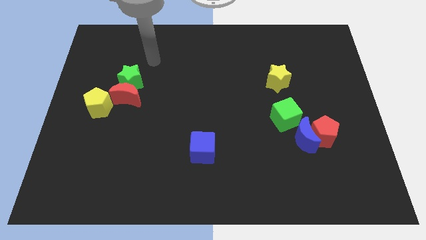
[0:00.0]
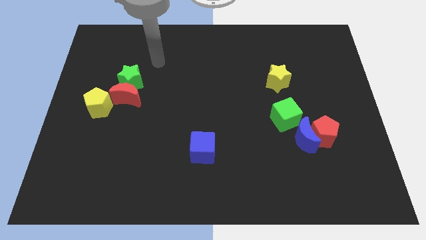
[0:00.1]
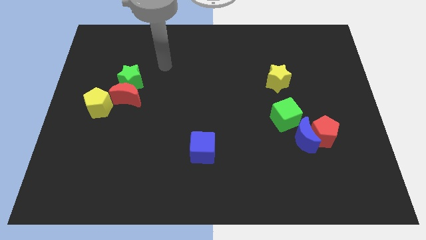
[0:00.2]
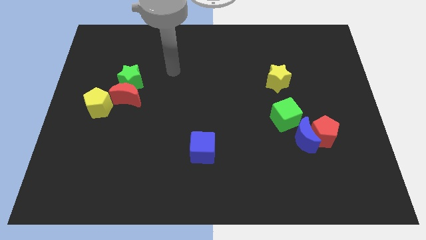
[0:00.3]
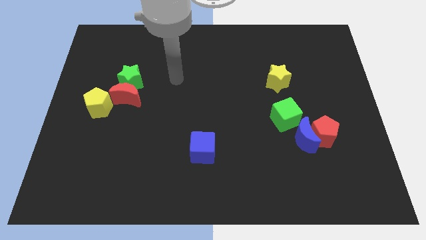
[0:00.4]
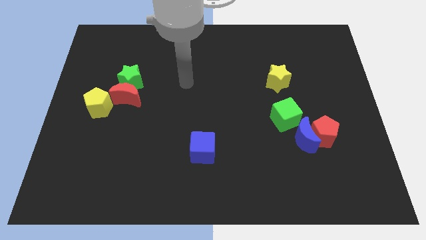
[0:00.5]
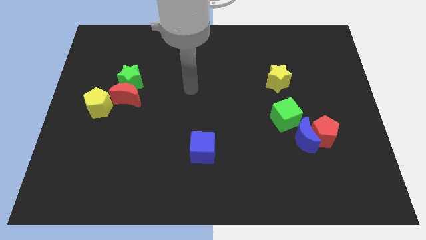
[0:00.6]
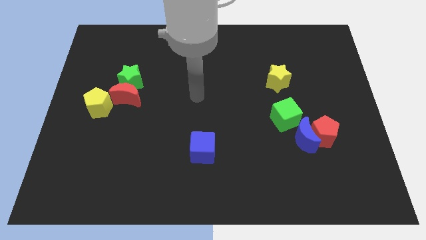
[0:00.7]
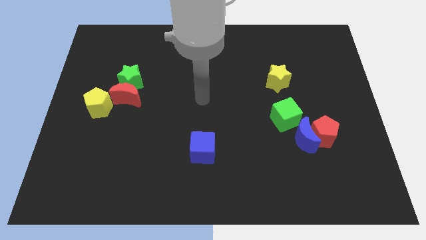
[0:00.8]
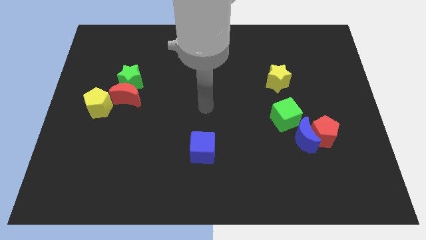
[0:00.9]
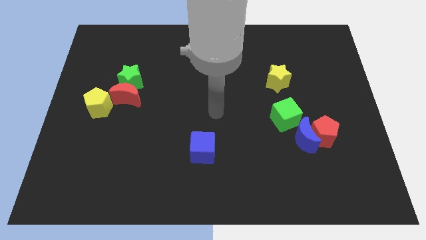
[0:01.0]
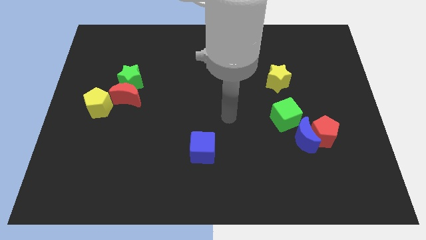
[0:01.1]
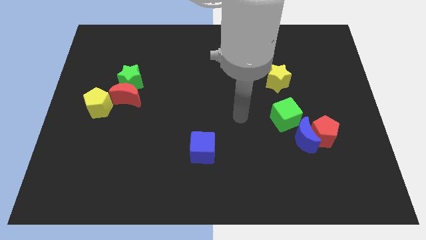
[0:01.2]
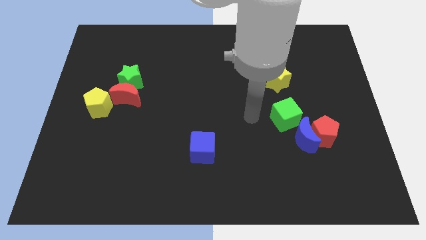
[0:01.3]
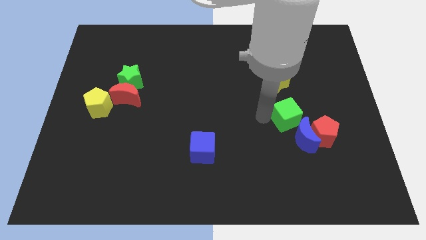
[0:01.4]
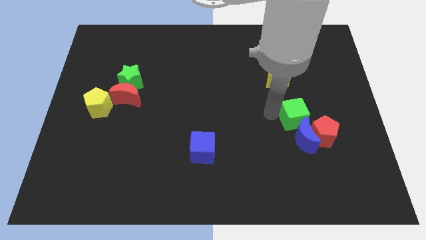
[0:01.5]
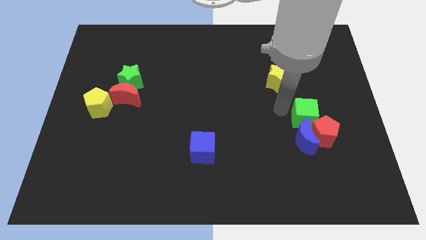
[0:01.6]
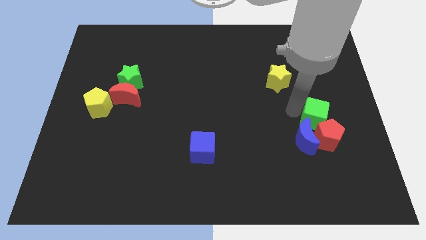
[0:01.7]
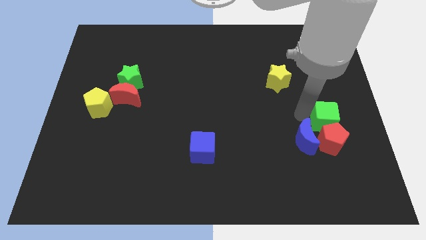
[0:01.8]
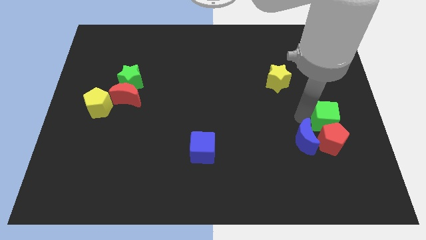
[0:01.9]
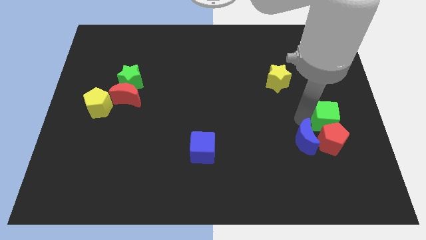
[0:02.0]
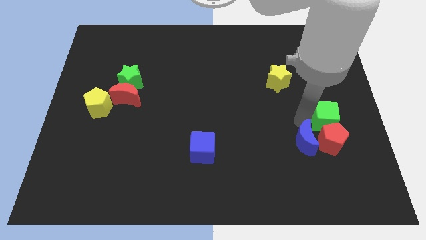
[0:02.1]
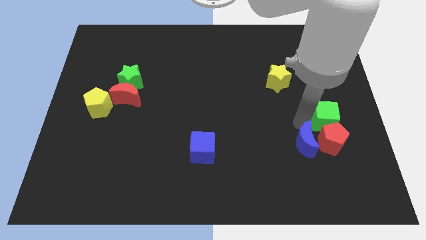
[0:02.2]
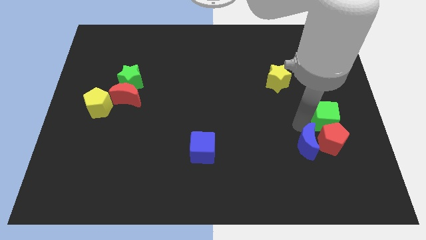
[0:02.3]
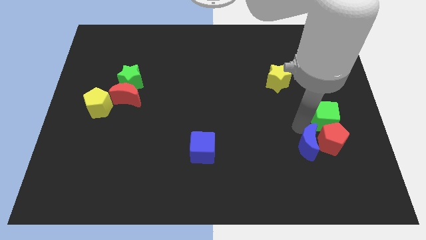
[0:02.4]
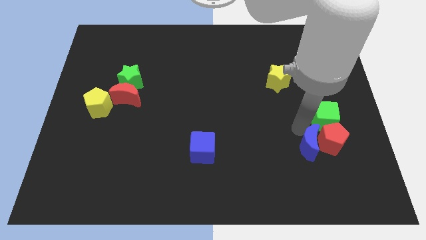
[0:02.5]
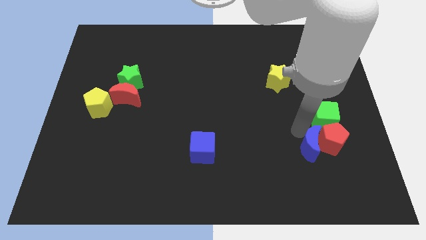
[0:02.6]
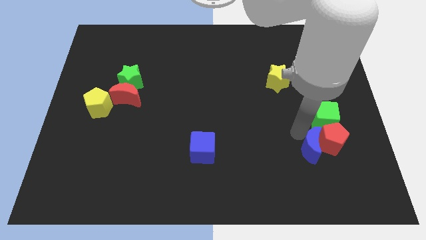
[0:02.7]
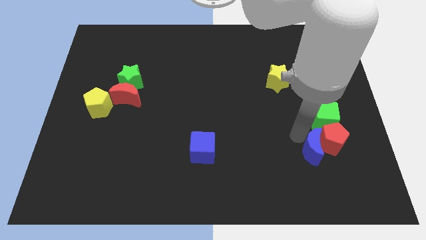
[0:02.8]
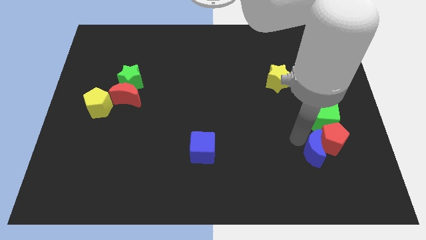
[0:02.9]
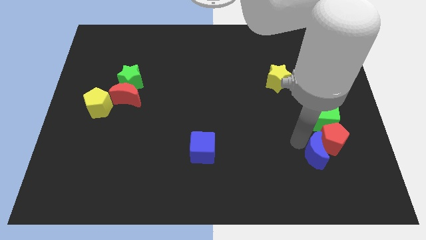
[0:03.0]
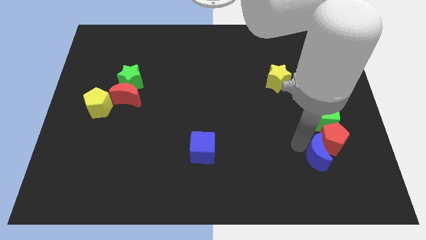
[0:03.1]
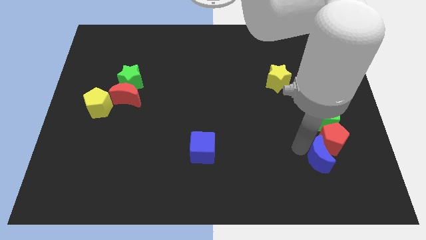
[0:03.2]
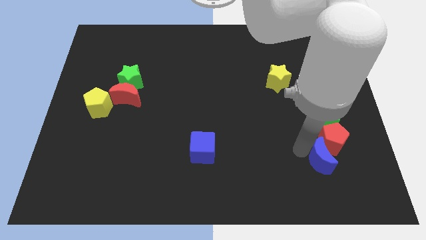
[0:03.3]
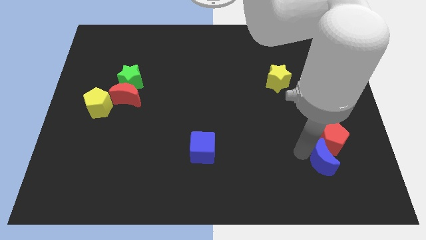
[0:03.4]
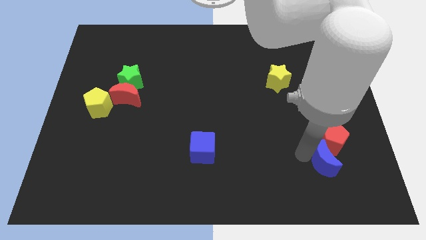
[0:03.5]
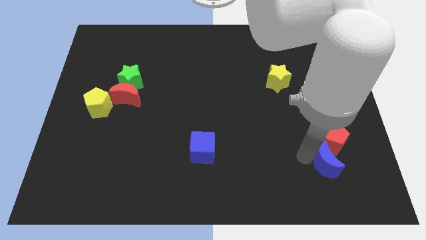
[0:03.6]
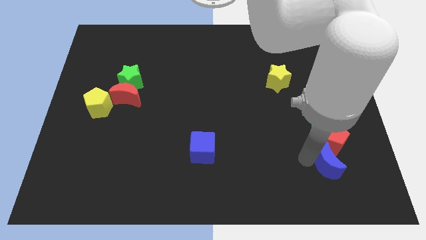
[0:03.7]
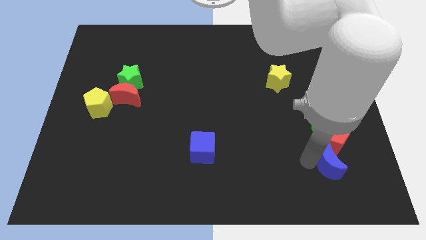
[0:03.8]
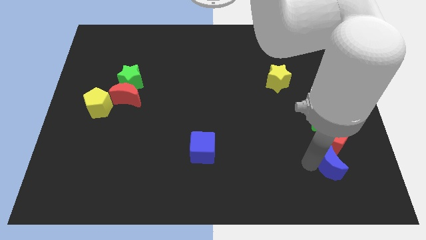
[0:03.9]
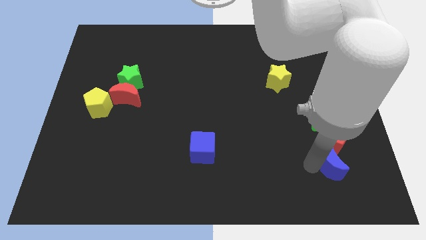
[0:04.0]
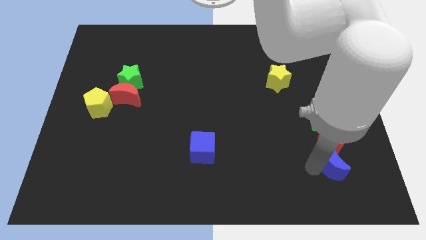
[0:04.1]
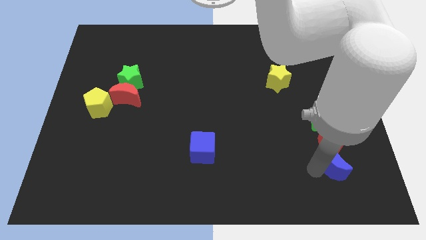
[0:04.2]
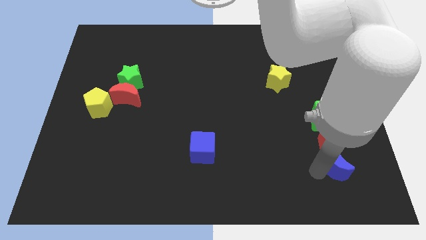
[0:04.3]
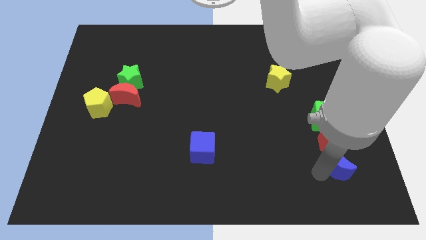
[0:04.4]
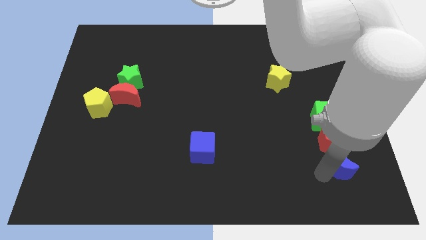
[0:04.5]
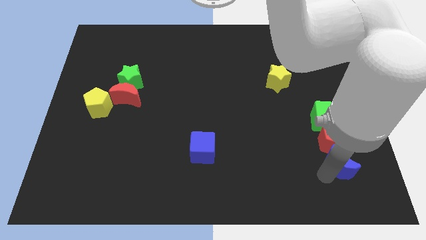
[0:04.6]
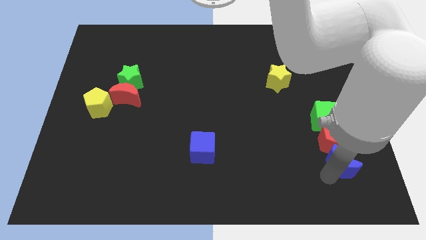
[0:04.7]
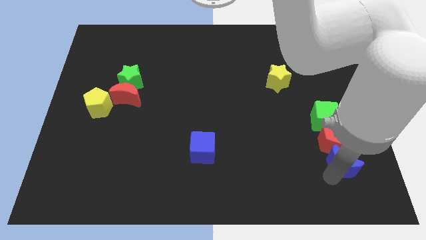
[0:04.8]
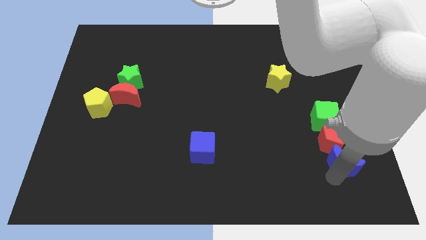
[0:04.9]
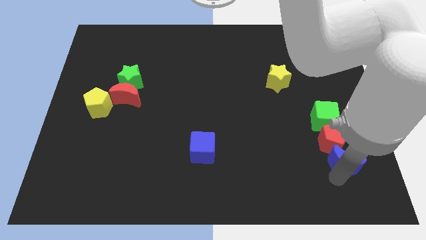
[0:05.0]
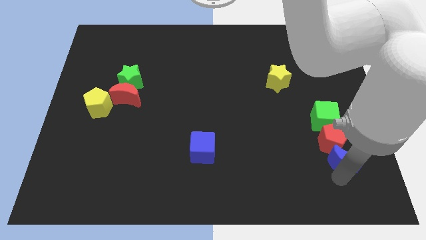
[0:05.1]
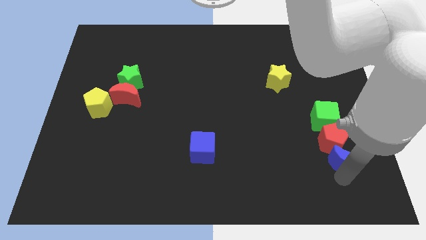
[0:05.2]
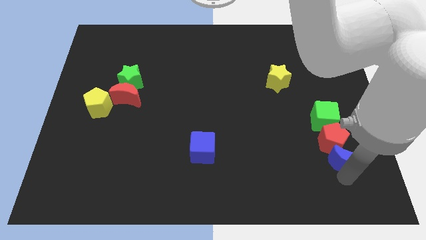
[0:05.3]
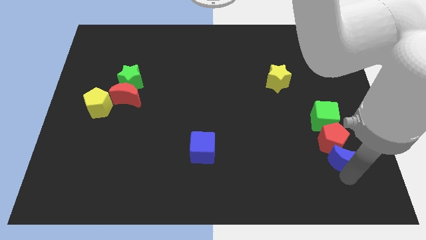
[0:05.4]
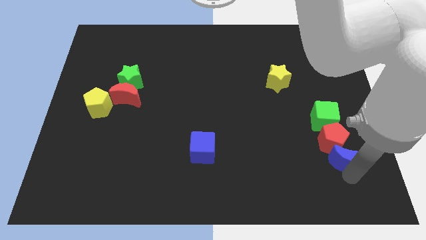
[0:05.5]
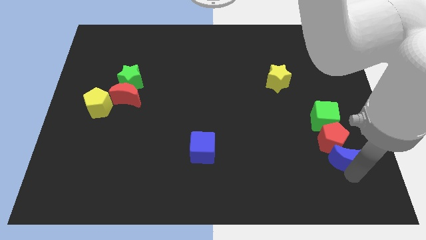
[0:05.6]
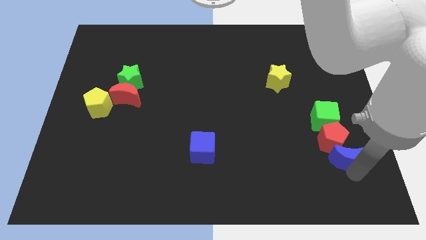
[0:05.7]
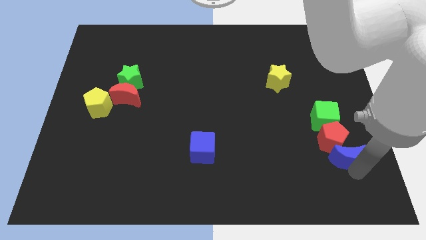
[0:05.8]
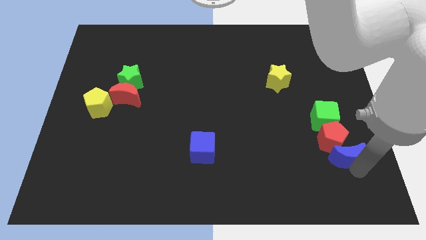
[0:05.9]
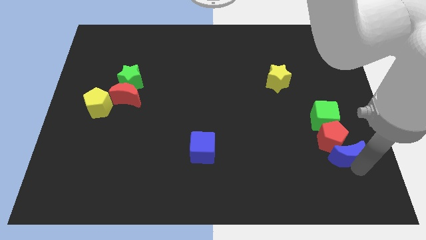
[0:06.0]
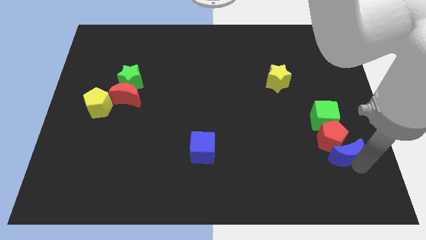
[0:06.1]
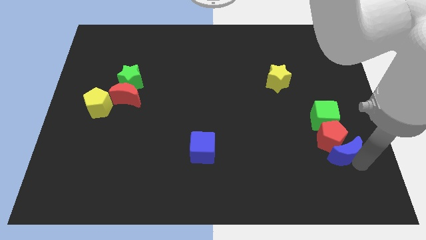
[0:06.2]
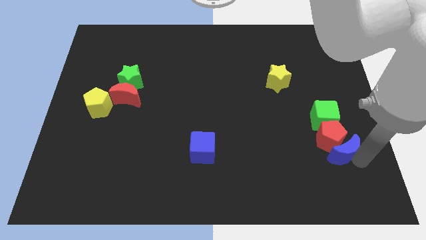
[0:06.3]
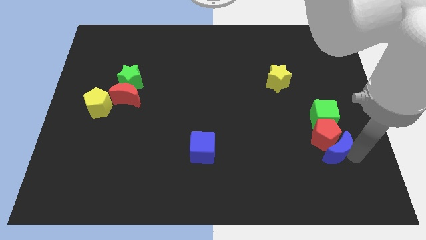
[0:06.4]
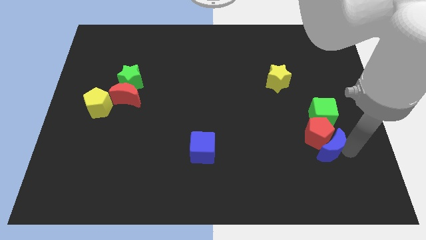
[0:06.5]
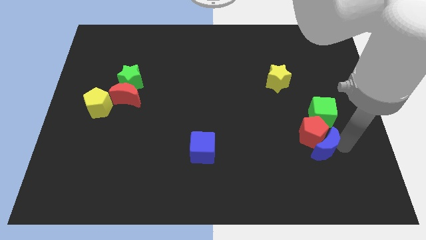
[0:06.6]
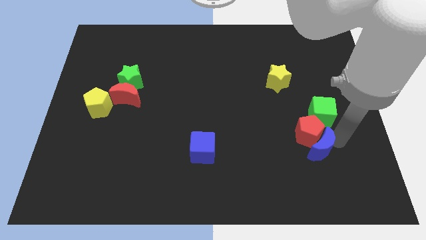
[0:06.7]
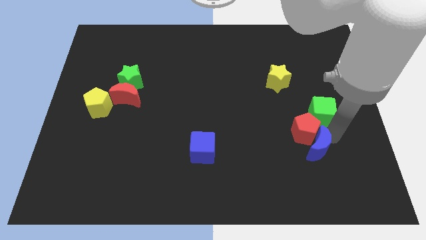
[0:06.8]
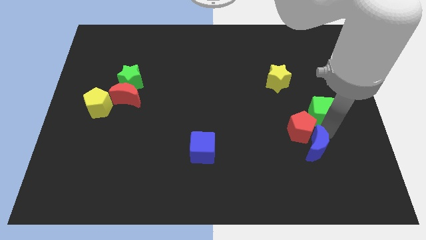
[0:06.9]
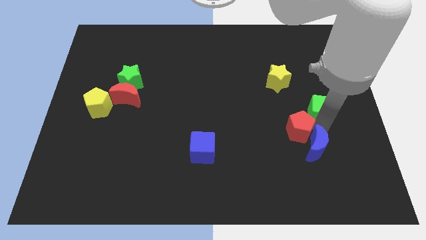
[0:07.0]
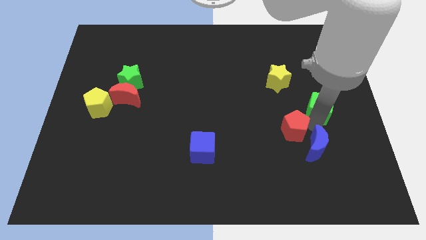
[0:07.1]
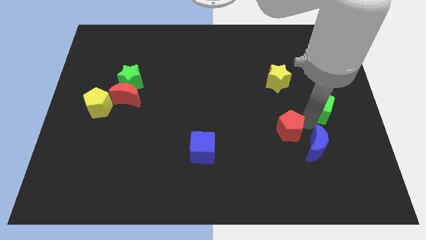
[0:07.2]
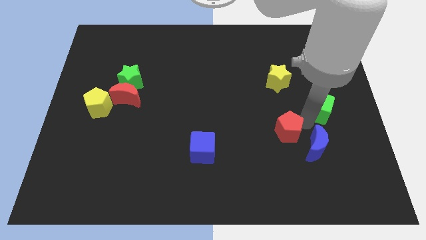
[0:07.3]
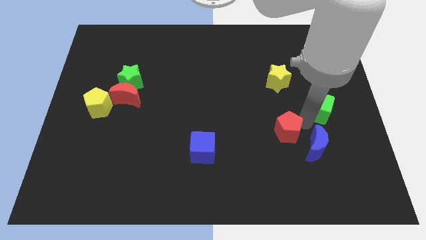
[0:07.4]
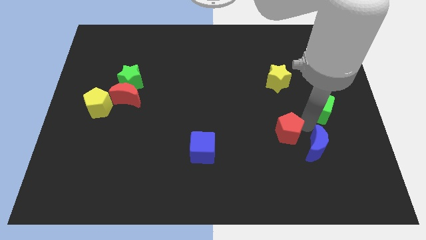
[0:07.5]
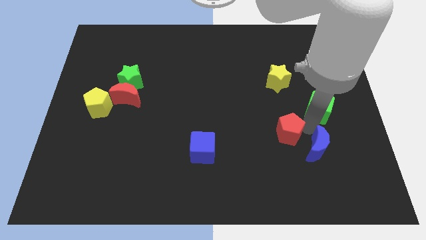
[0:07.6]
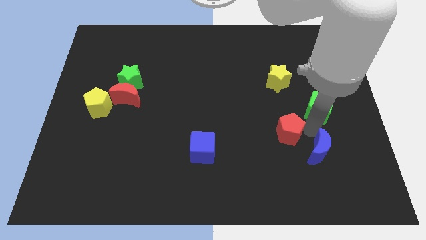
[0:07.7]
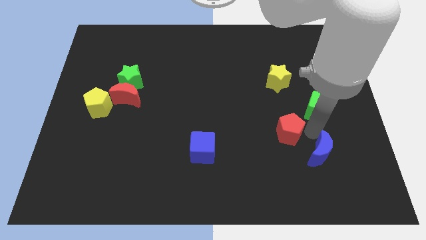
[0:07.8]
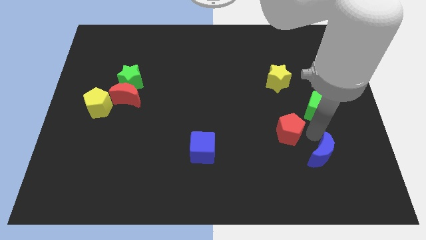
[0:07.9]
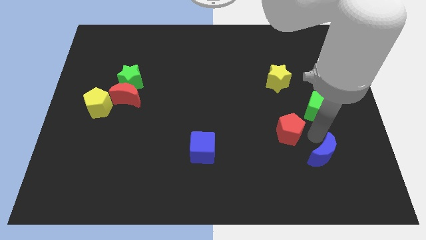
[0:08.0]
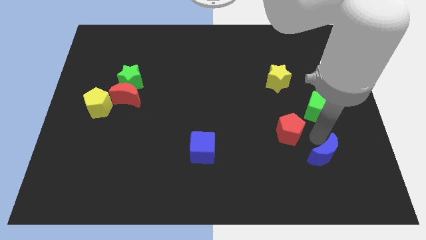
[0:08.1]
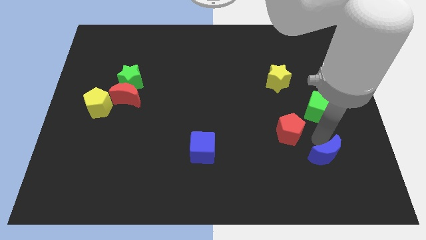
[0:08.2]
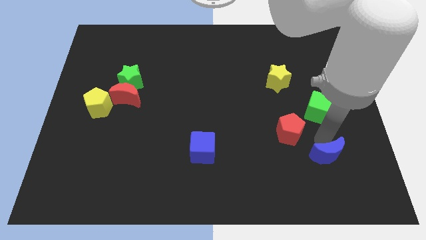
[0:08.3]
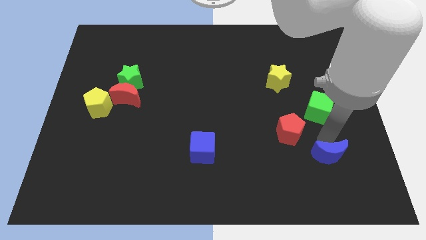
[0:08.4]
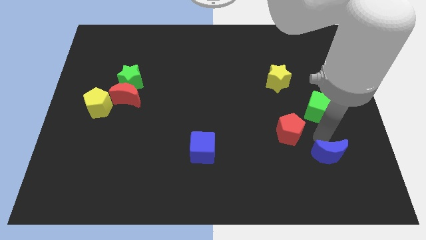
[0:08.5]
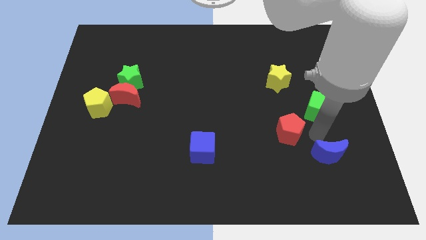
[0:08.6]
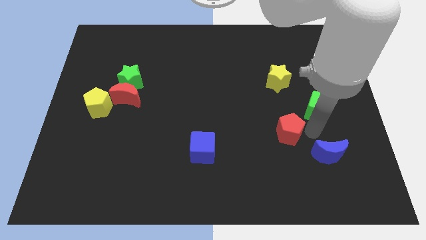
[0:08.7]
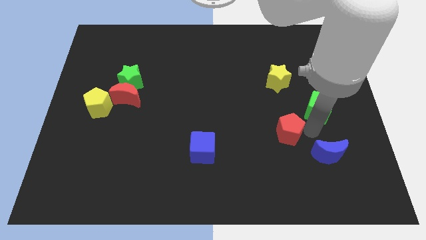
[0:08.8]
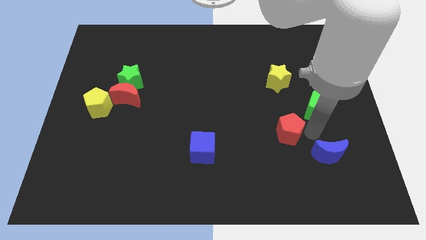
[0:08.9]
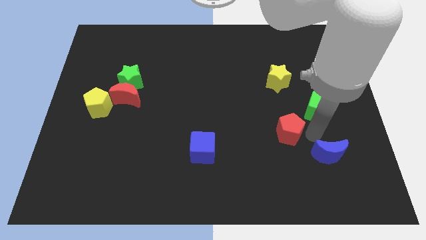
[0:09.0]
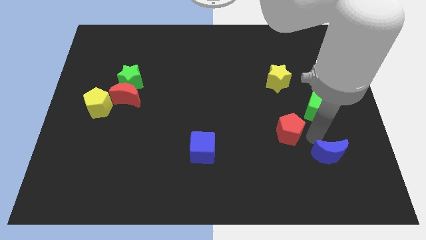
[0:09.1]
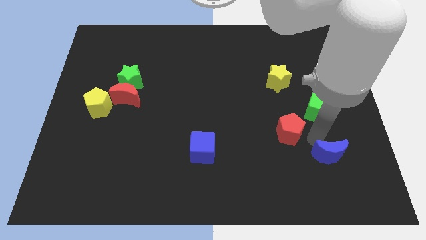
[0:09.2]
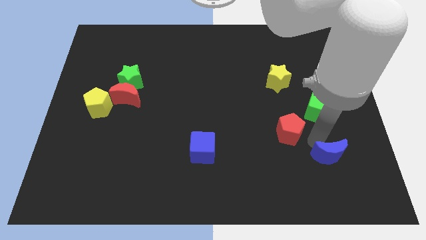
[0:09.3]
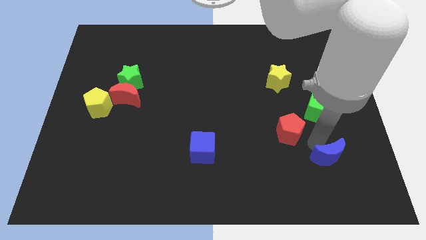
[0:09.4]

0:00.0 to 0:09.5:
separate the blue moon from the red pentagon and green cube
